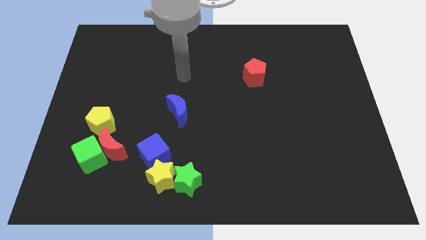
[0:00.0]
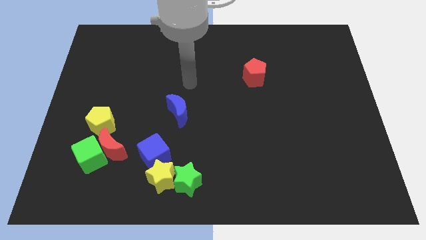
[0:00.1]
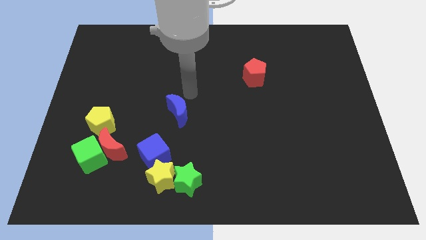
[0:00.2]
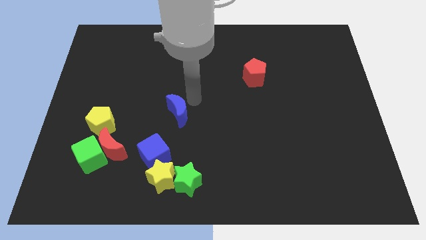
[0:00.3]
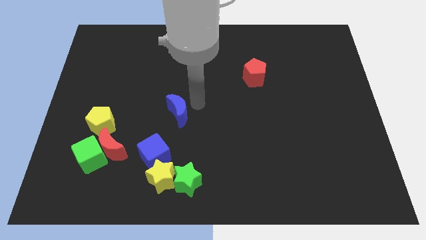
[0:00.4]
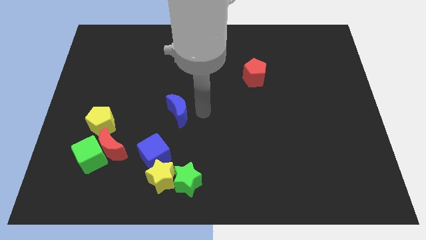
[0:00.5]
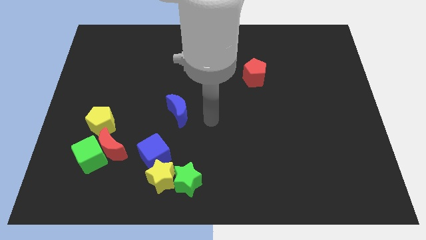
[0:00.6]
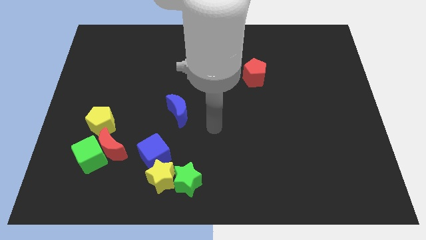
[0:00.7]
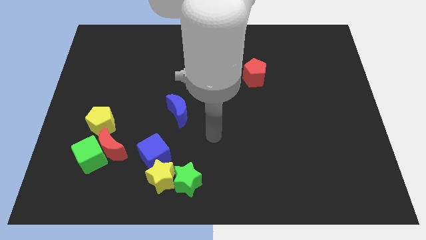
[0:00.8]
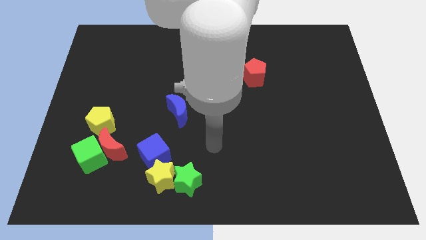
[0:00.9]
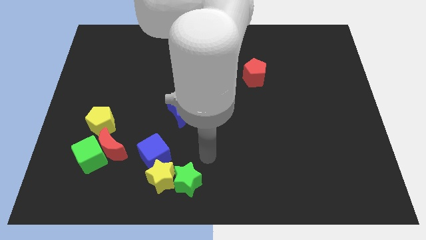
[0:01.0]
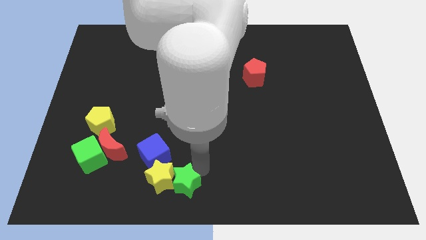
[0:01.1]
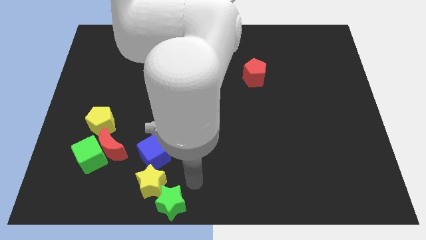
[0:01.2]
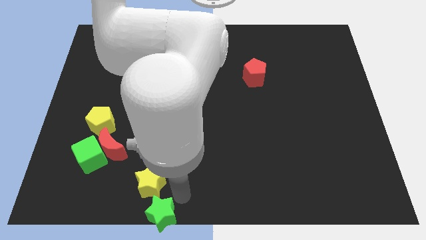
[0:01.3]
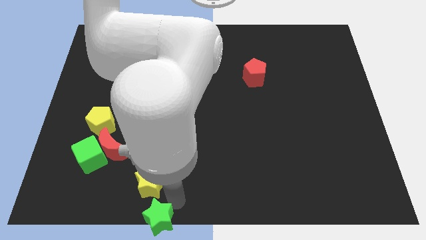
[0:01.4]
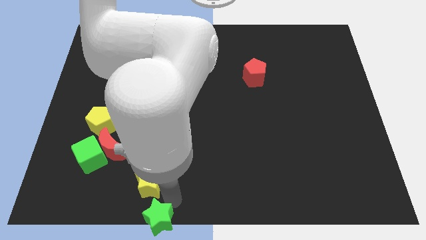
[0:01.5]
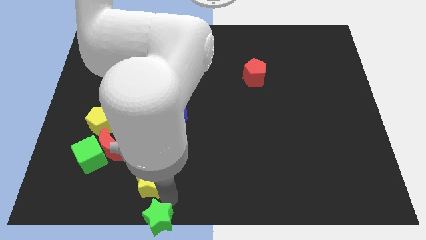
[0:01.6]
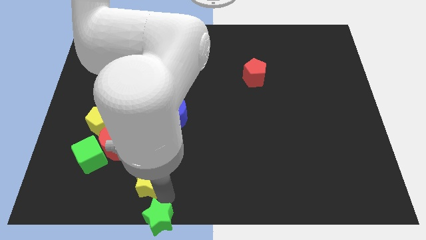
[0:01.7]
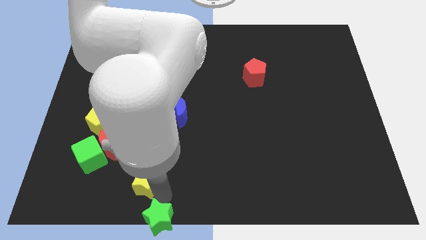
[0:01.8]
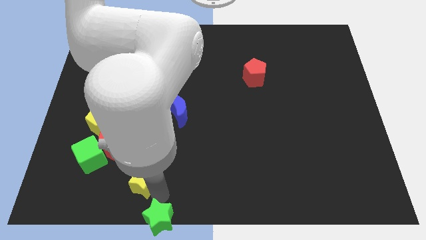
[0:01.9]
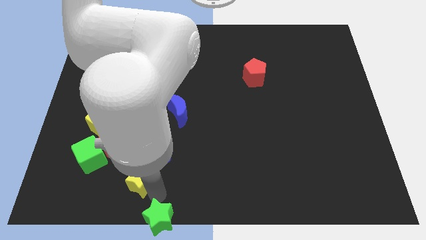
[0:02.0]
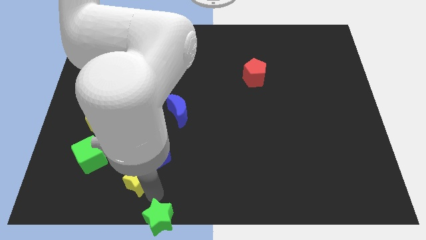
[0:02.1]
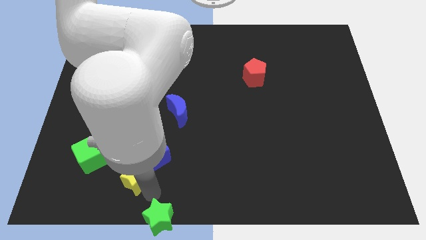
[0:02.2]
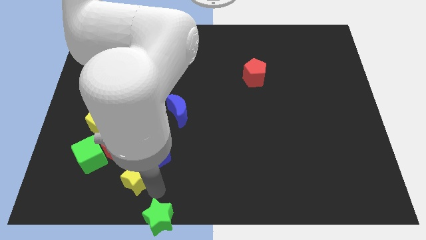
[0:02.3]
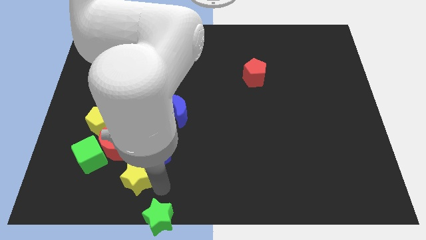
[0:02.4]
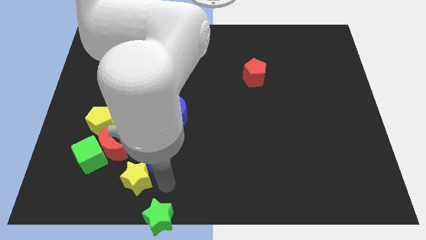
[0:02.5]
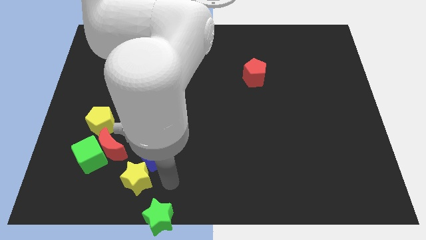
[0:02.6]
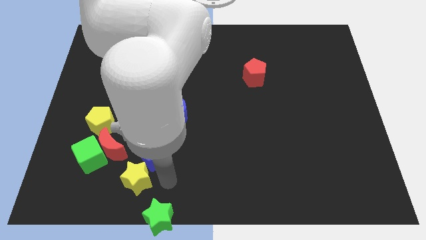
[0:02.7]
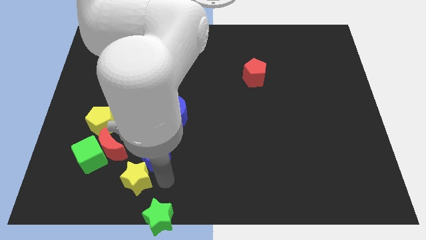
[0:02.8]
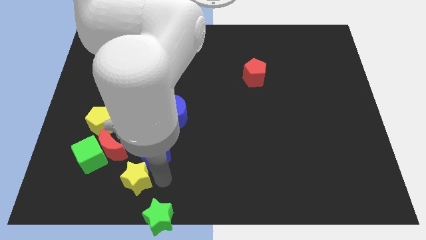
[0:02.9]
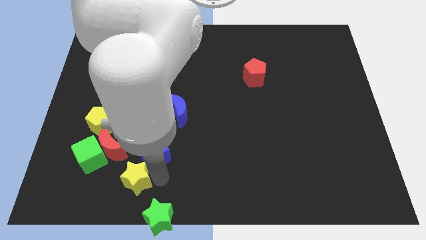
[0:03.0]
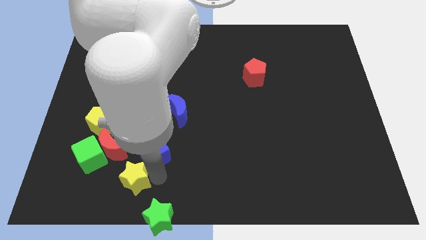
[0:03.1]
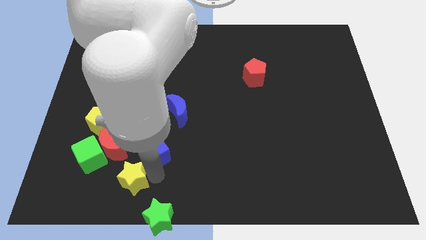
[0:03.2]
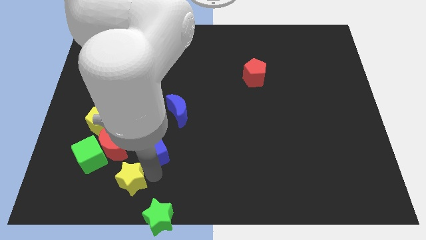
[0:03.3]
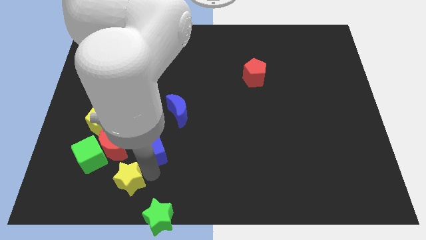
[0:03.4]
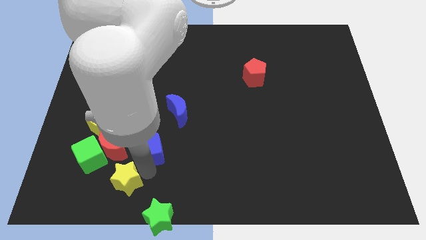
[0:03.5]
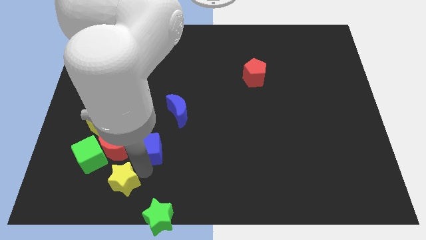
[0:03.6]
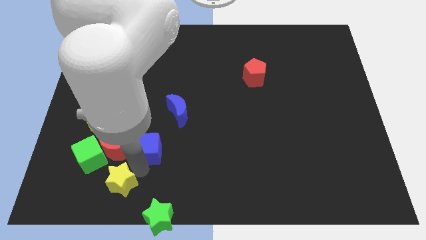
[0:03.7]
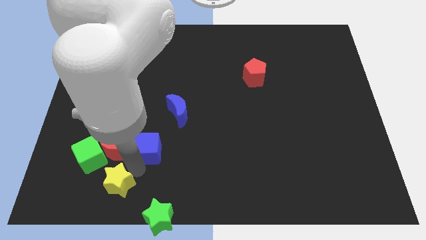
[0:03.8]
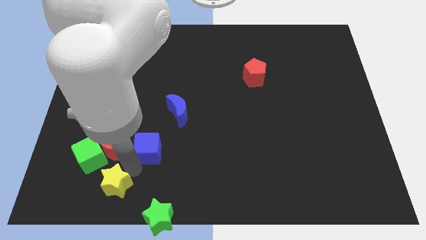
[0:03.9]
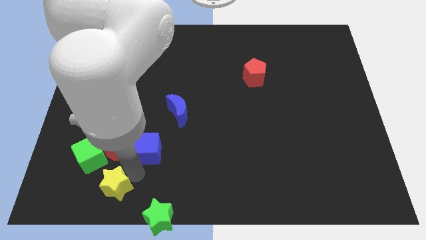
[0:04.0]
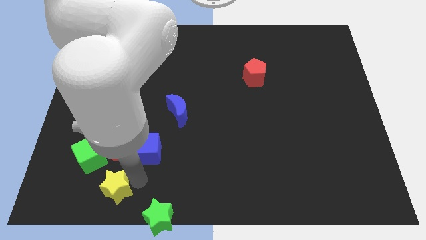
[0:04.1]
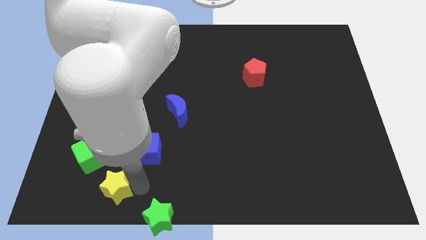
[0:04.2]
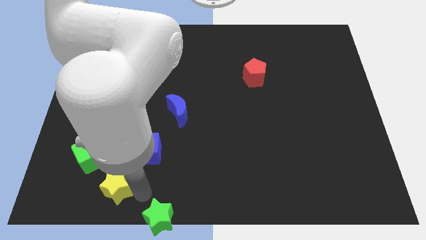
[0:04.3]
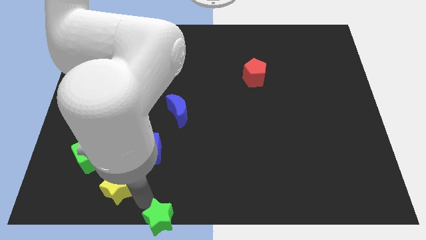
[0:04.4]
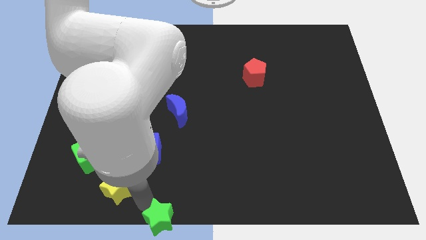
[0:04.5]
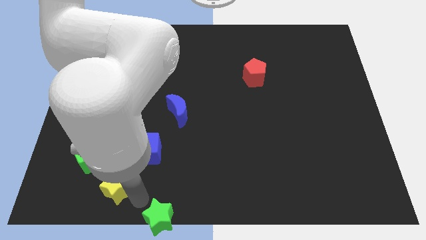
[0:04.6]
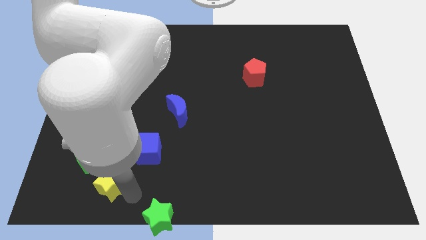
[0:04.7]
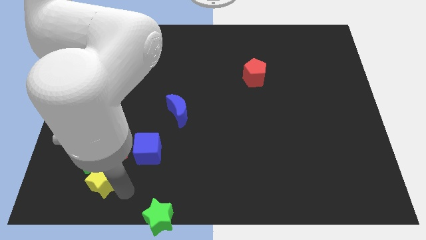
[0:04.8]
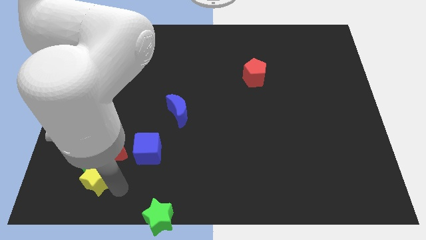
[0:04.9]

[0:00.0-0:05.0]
put the yellow star next to the green cube

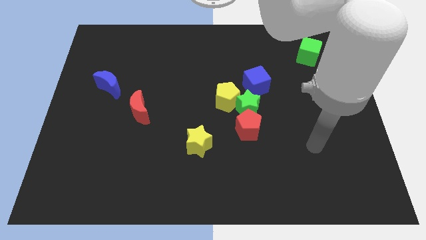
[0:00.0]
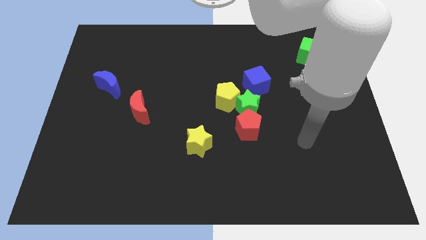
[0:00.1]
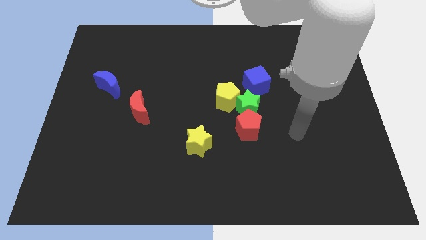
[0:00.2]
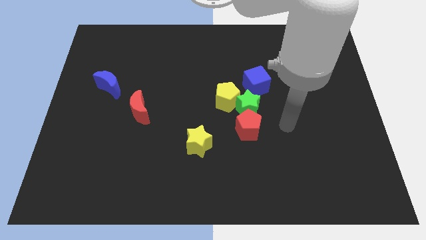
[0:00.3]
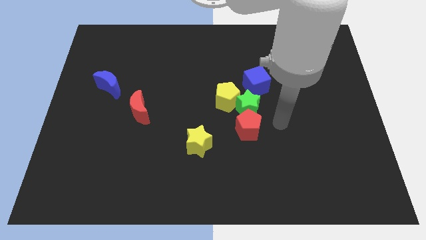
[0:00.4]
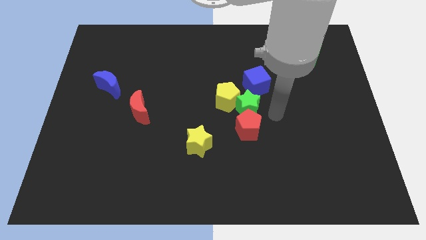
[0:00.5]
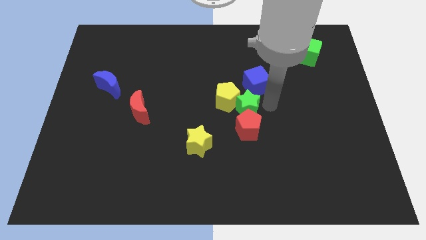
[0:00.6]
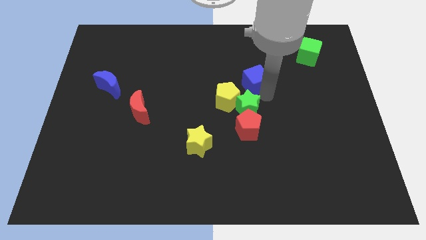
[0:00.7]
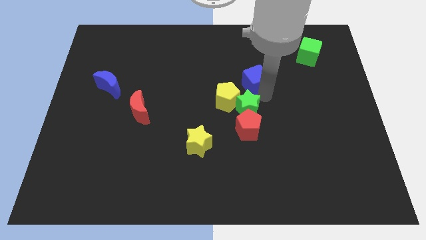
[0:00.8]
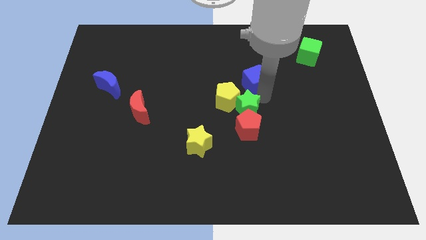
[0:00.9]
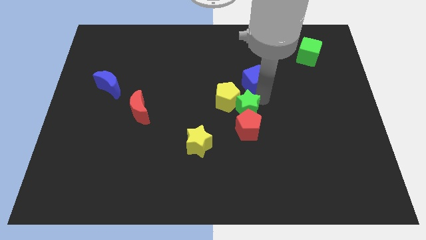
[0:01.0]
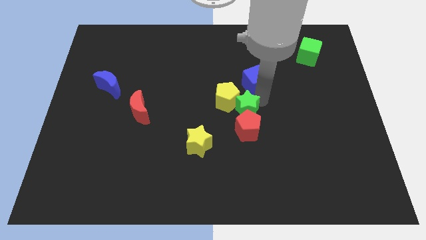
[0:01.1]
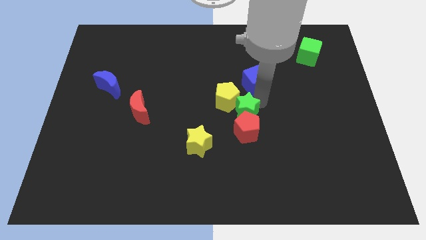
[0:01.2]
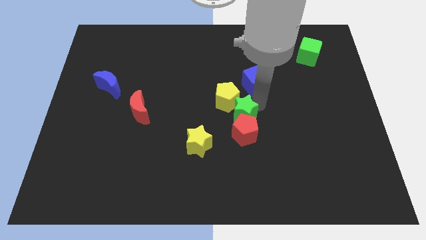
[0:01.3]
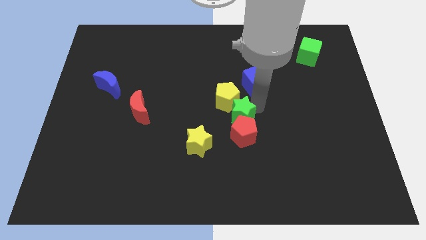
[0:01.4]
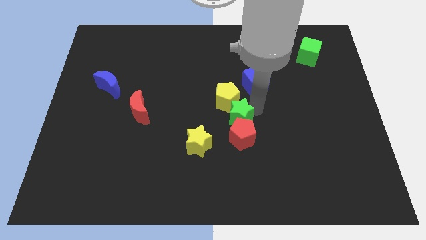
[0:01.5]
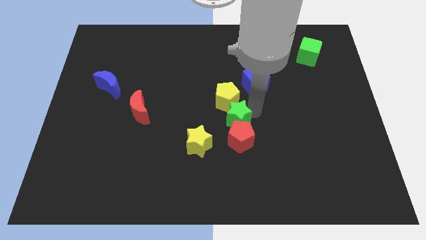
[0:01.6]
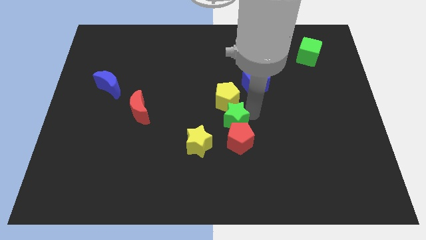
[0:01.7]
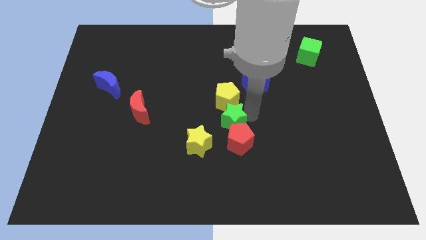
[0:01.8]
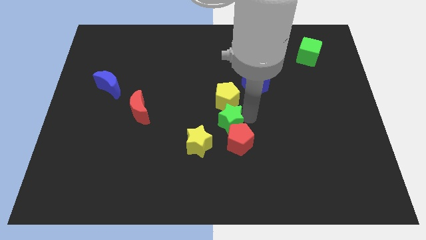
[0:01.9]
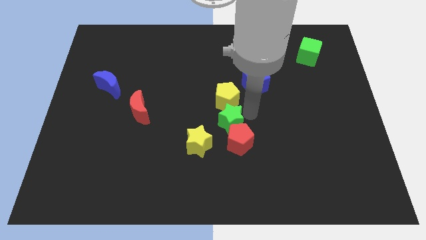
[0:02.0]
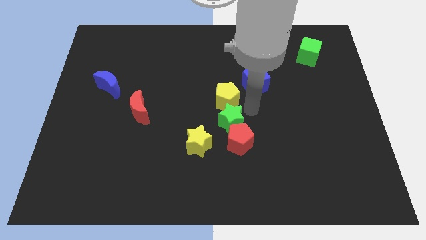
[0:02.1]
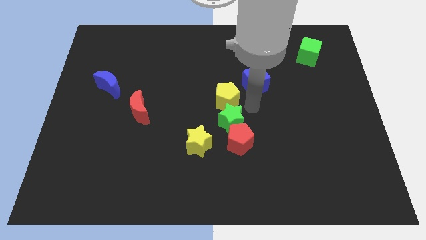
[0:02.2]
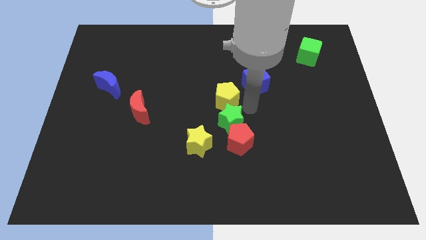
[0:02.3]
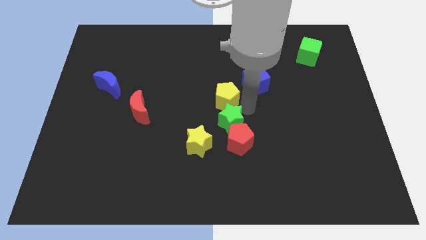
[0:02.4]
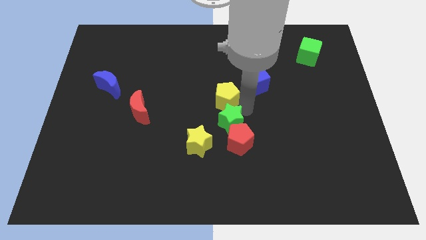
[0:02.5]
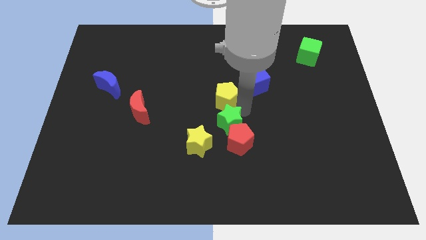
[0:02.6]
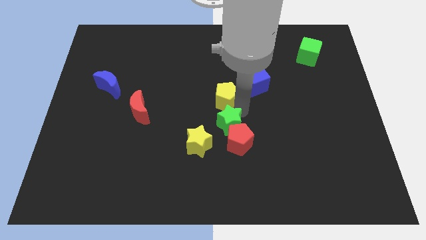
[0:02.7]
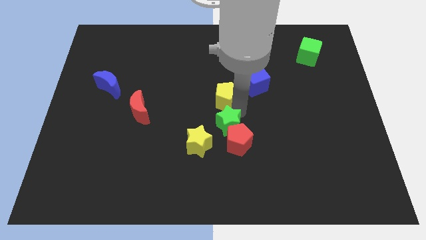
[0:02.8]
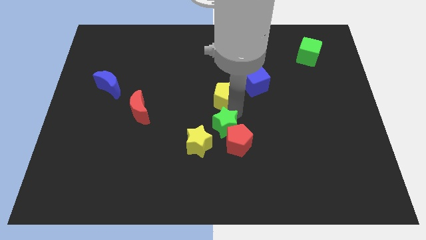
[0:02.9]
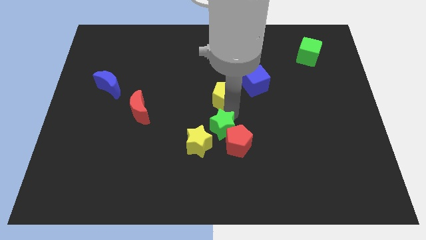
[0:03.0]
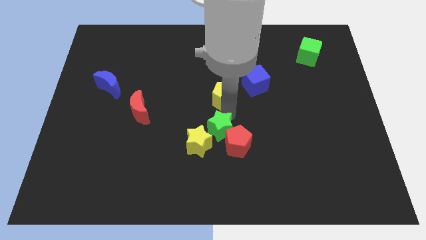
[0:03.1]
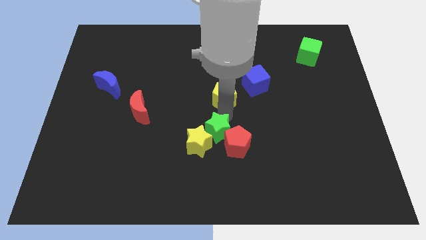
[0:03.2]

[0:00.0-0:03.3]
put the green star next to the yellow star
